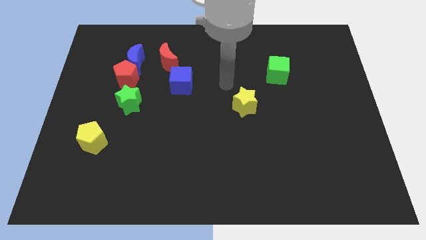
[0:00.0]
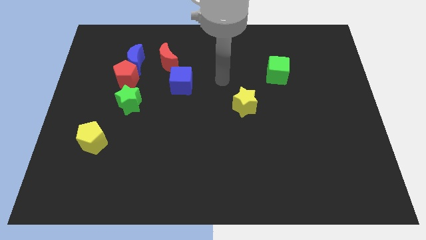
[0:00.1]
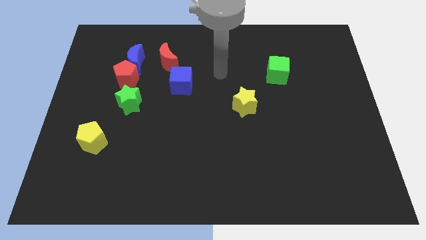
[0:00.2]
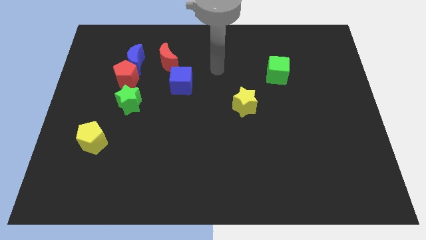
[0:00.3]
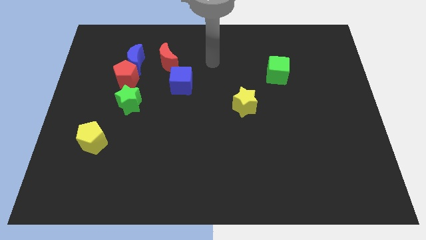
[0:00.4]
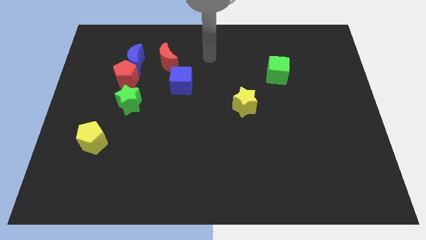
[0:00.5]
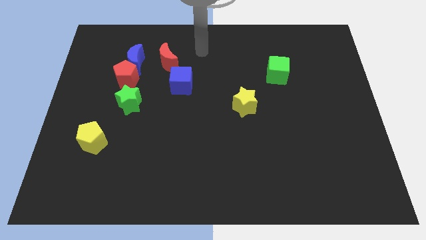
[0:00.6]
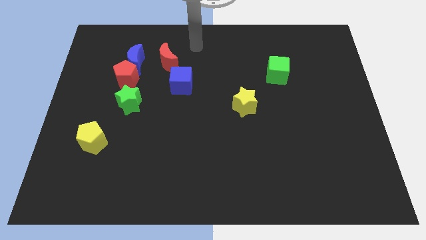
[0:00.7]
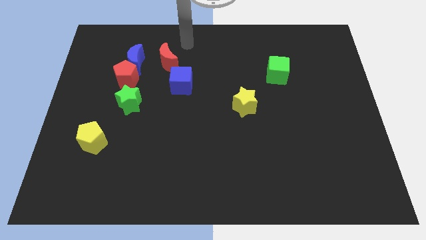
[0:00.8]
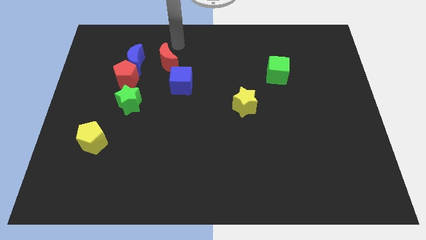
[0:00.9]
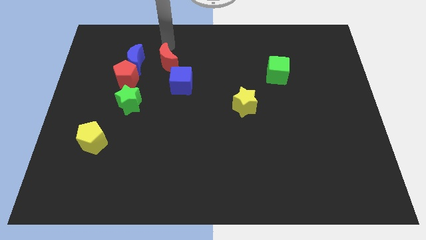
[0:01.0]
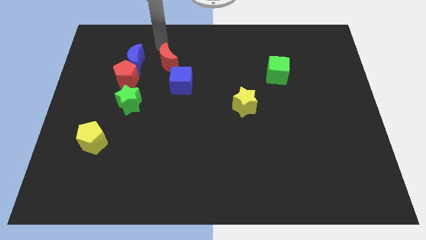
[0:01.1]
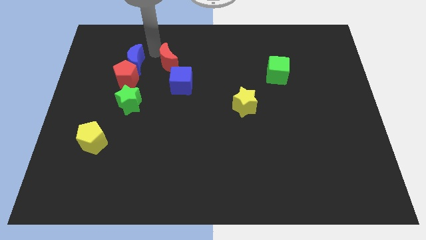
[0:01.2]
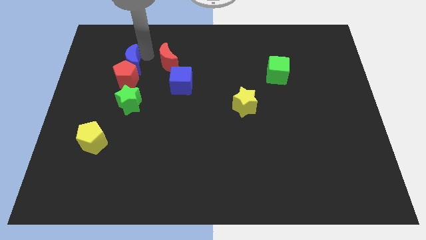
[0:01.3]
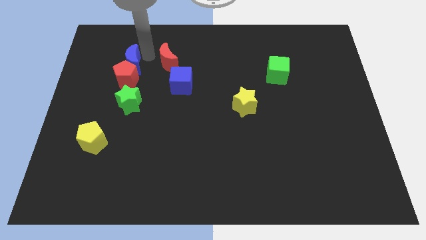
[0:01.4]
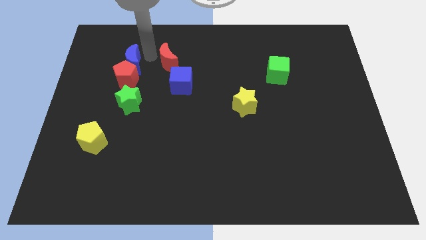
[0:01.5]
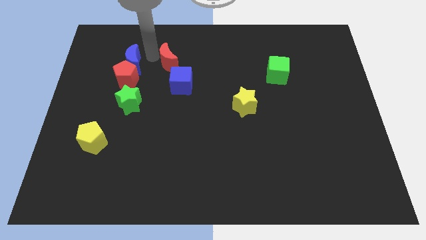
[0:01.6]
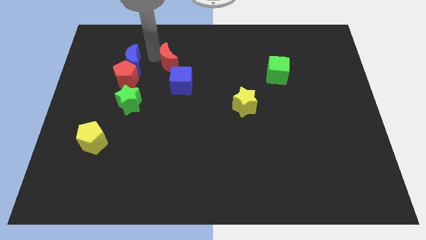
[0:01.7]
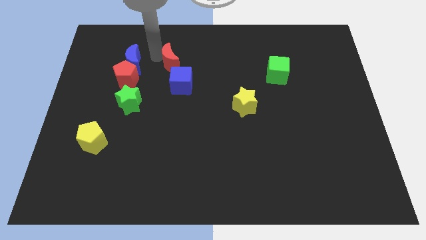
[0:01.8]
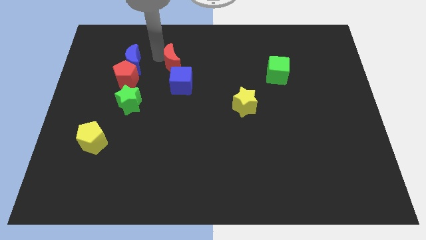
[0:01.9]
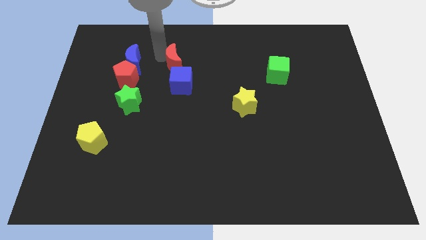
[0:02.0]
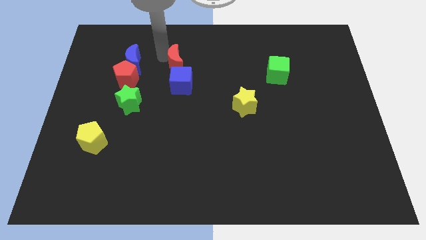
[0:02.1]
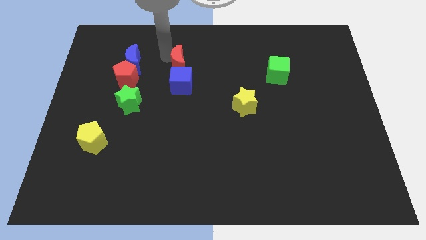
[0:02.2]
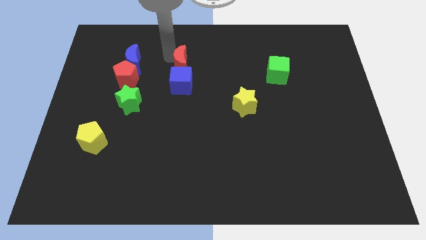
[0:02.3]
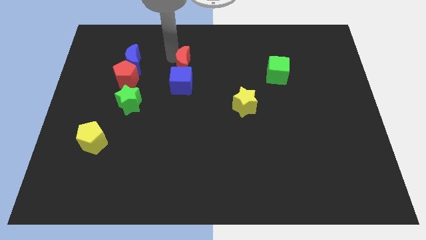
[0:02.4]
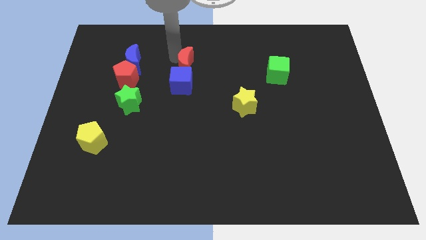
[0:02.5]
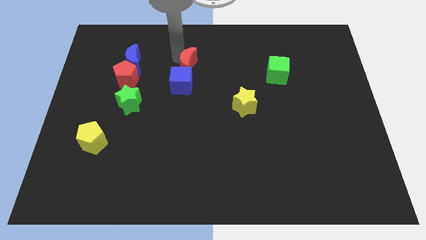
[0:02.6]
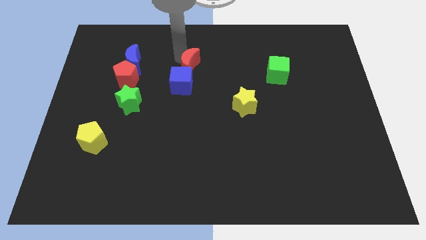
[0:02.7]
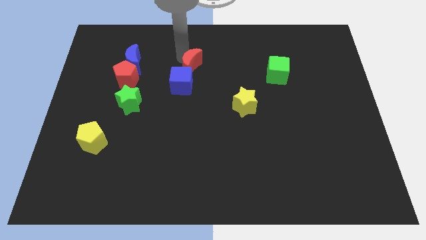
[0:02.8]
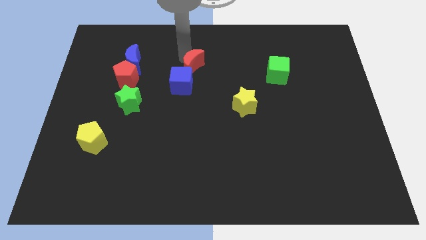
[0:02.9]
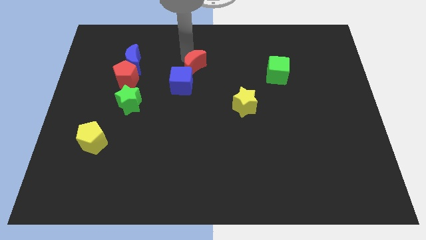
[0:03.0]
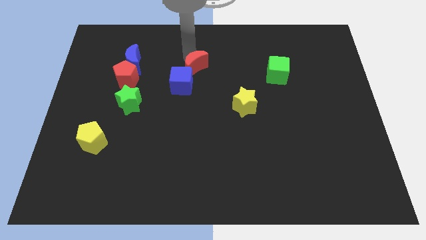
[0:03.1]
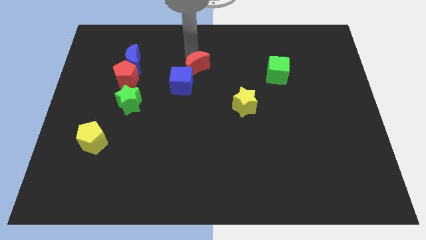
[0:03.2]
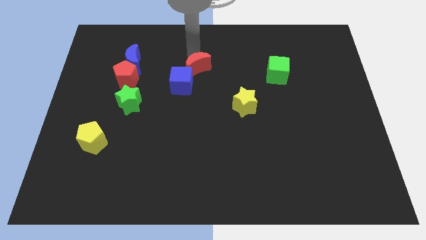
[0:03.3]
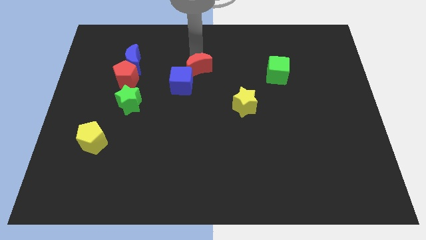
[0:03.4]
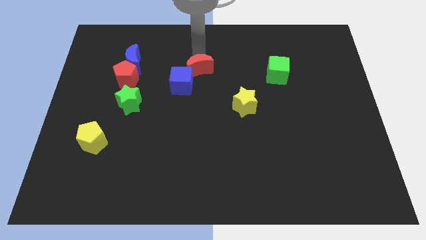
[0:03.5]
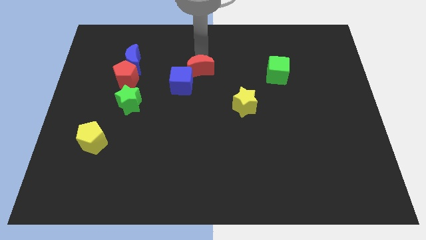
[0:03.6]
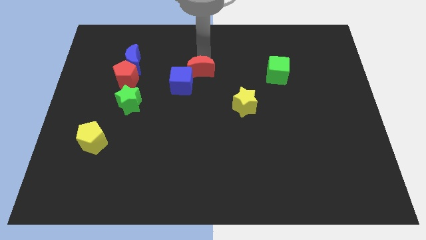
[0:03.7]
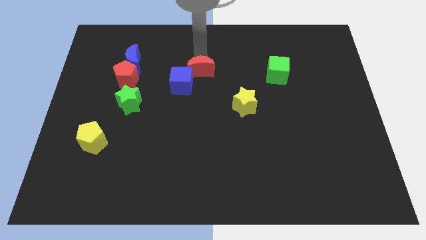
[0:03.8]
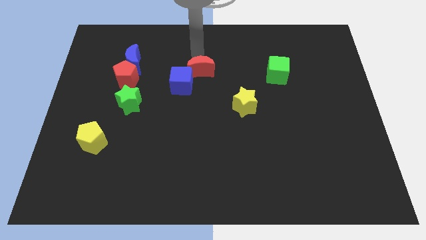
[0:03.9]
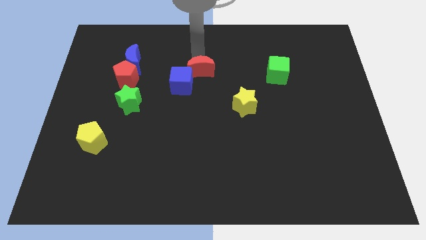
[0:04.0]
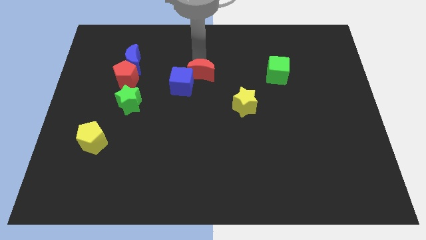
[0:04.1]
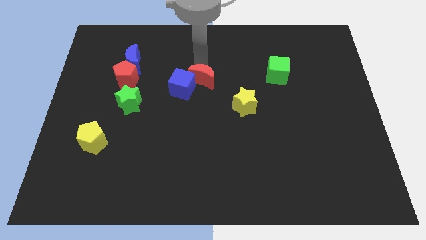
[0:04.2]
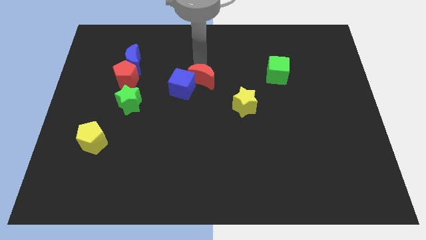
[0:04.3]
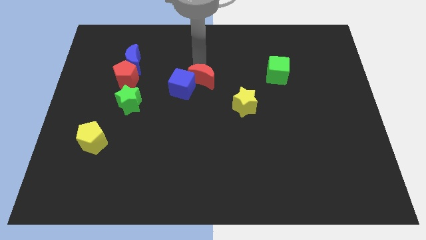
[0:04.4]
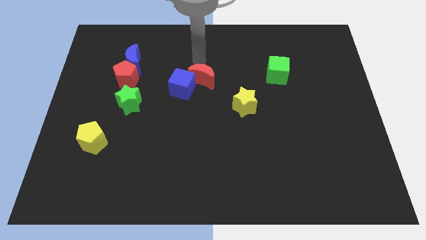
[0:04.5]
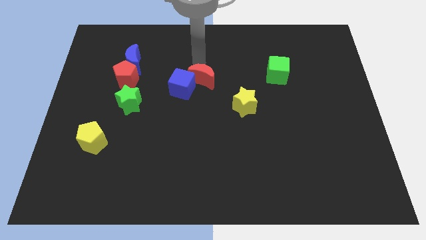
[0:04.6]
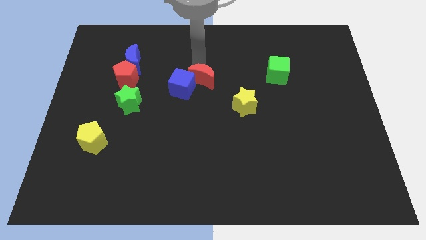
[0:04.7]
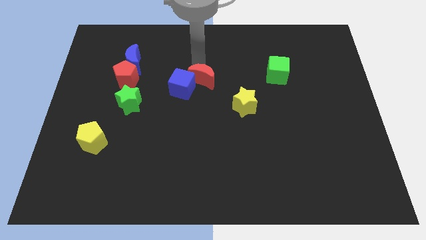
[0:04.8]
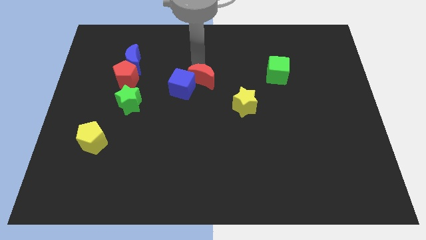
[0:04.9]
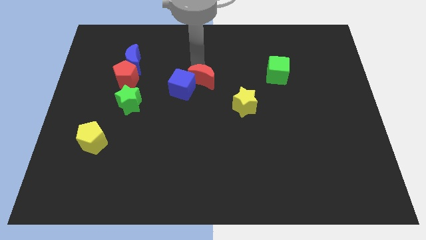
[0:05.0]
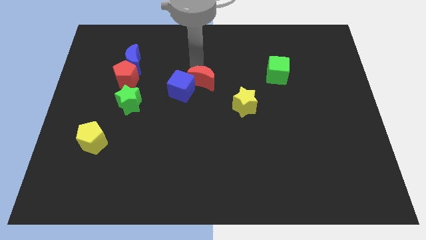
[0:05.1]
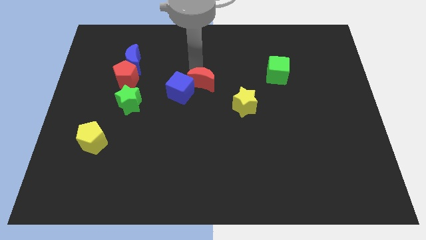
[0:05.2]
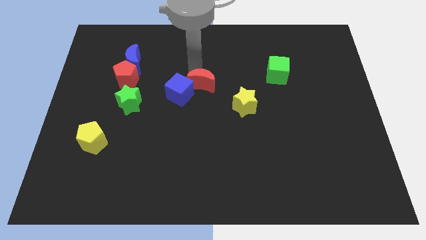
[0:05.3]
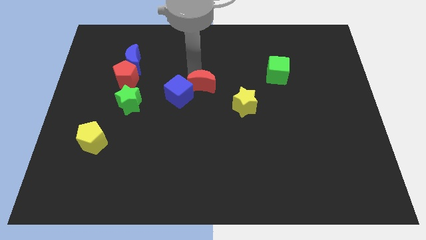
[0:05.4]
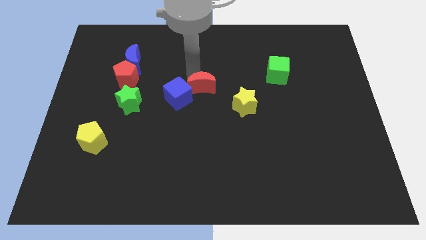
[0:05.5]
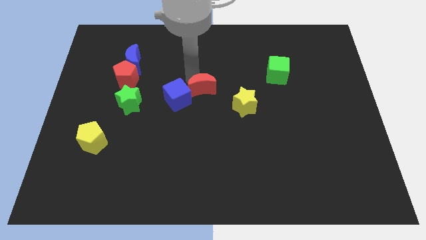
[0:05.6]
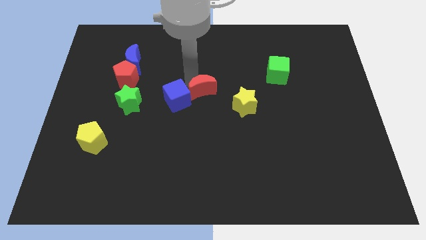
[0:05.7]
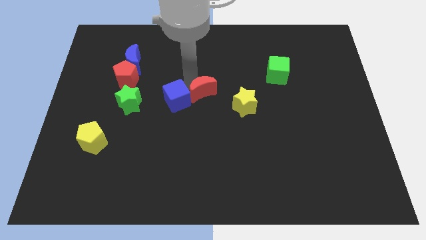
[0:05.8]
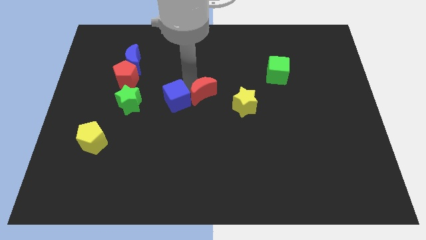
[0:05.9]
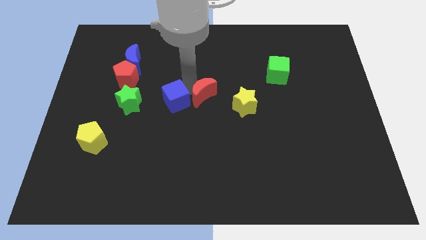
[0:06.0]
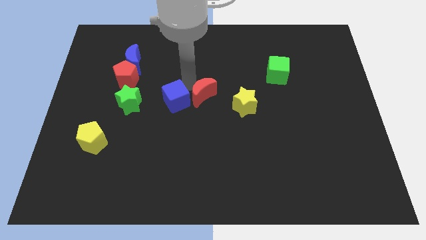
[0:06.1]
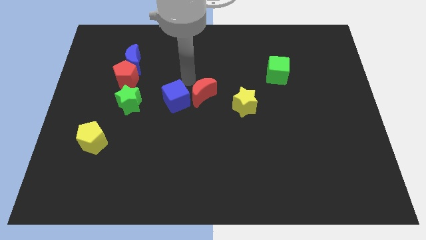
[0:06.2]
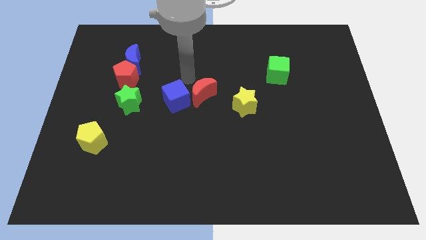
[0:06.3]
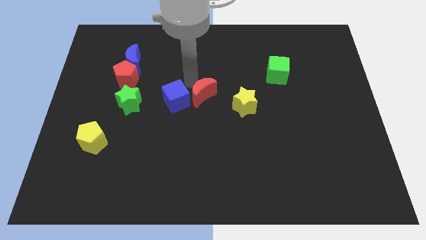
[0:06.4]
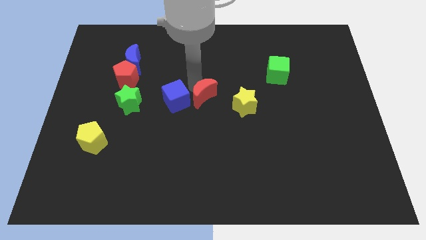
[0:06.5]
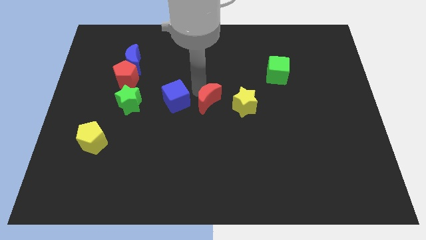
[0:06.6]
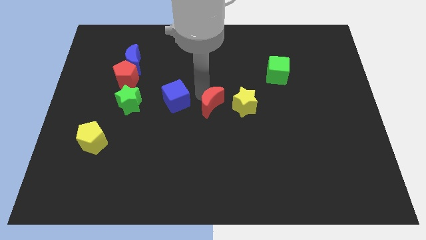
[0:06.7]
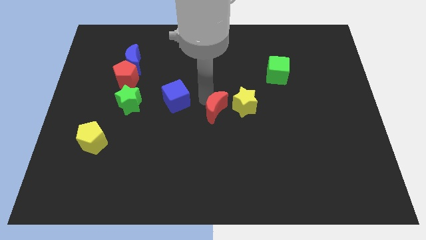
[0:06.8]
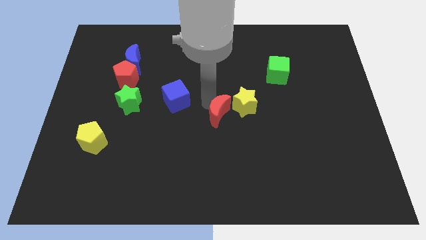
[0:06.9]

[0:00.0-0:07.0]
slide the red moon downwards and to the right

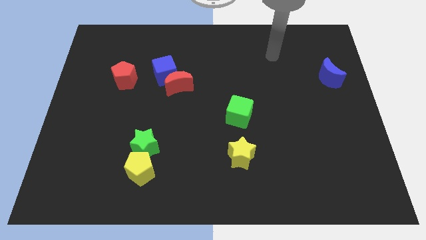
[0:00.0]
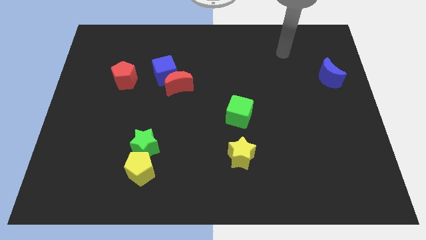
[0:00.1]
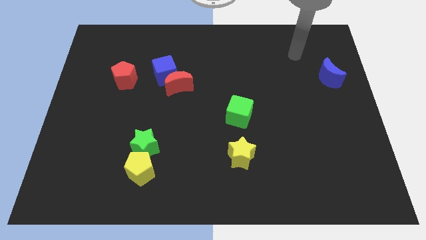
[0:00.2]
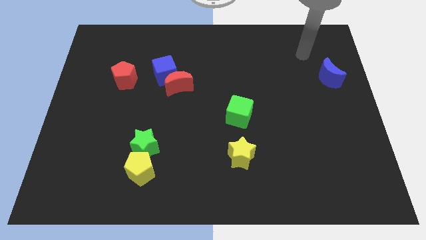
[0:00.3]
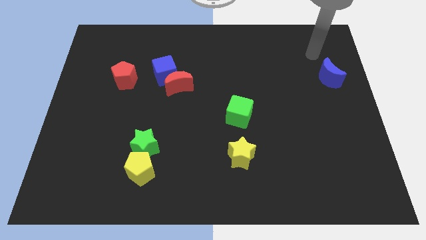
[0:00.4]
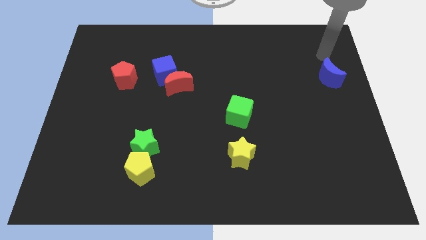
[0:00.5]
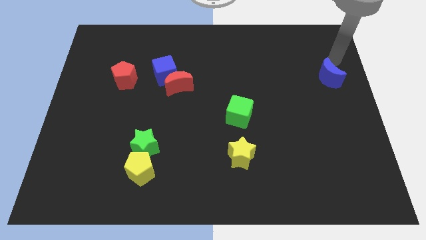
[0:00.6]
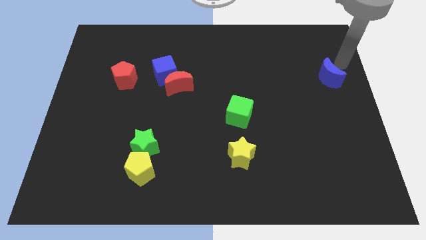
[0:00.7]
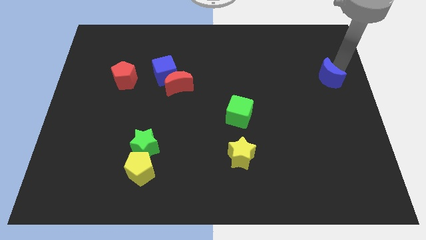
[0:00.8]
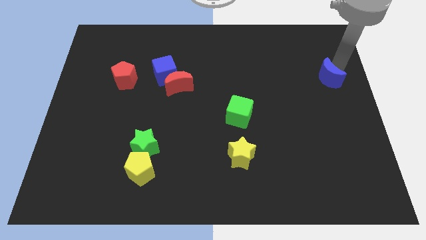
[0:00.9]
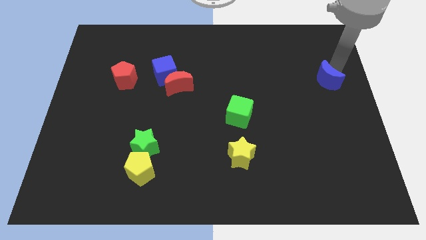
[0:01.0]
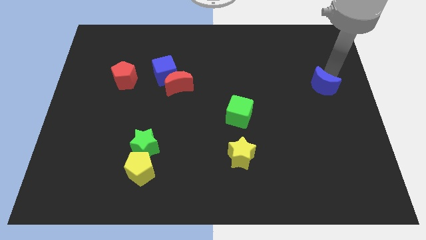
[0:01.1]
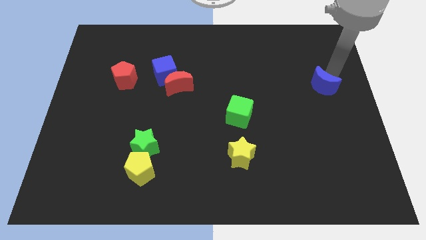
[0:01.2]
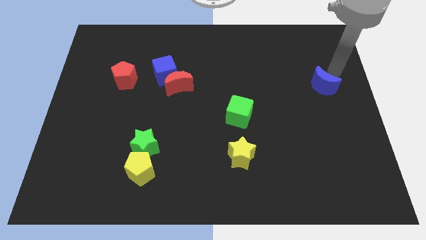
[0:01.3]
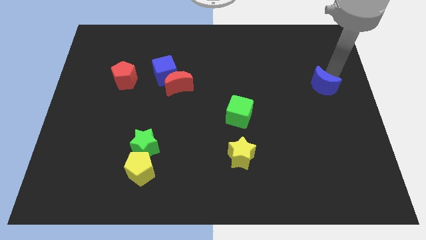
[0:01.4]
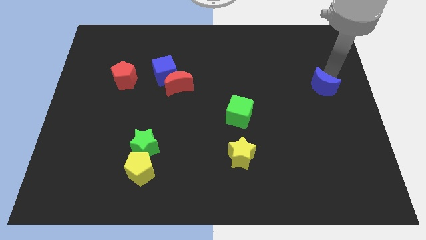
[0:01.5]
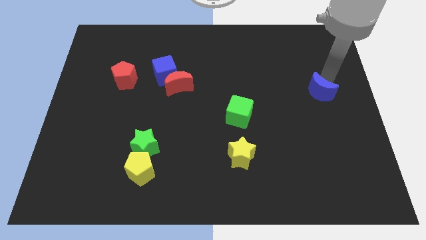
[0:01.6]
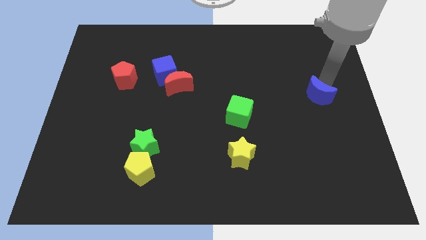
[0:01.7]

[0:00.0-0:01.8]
push the blue moon down and to the left diagonally slightly
